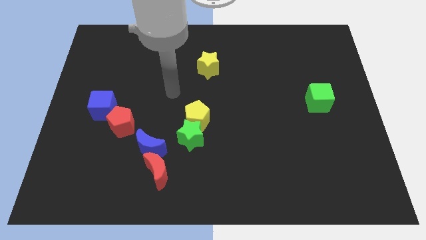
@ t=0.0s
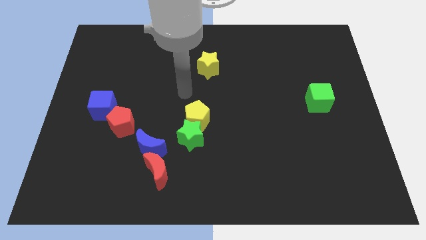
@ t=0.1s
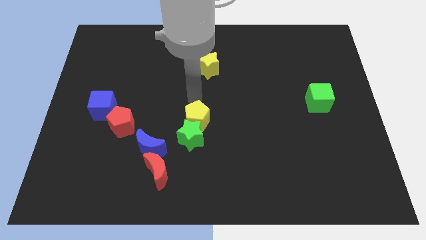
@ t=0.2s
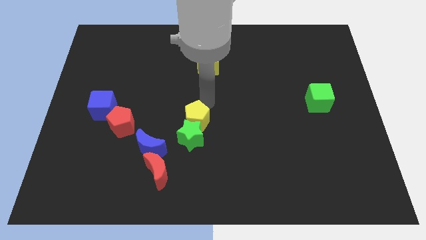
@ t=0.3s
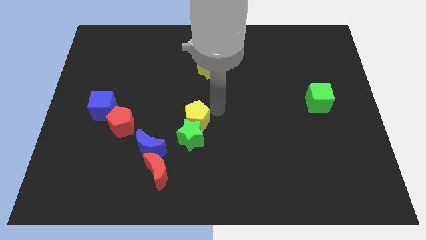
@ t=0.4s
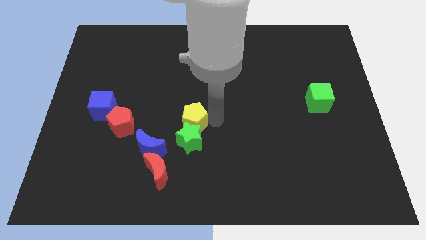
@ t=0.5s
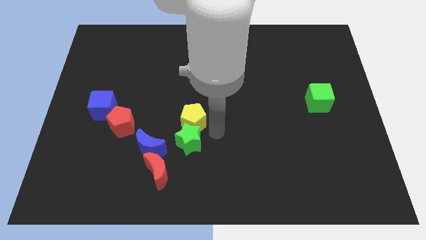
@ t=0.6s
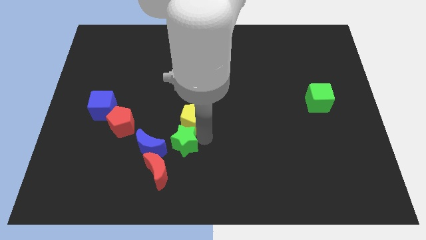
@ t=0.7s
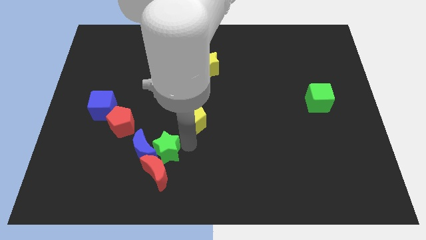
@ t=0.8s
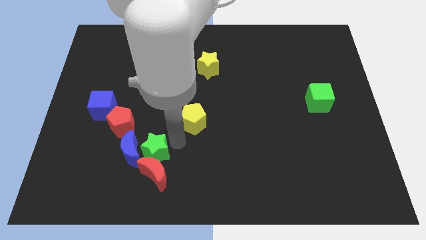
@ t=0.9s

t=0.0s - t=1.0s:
pull the yellow pentagon apart from the green star

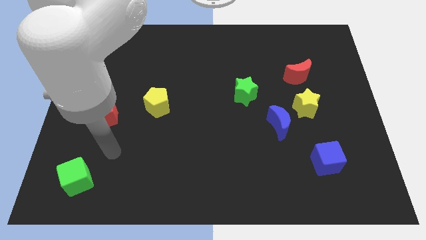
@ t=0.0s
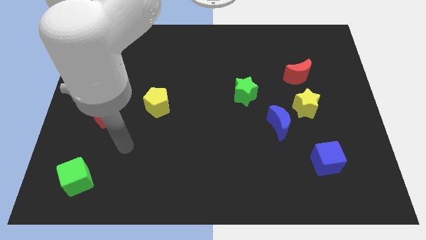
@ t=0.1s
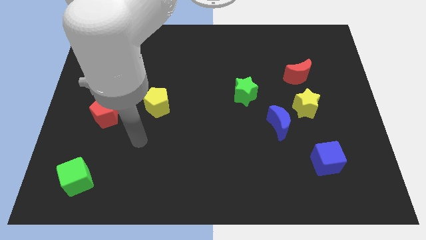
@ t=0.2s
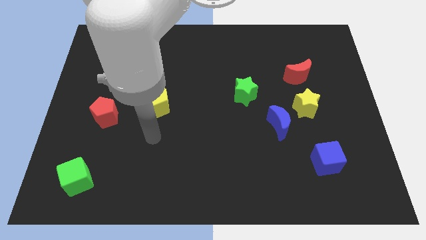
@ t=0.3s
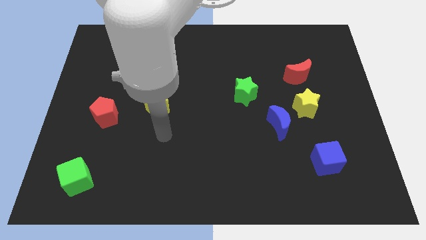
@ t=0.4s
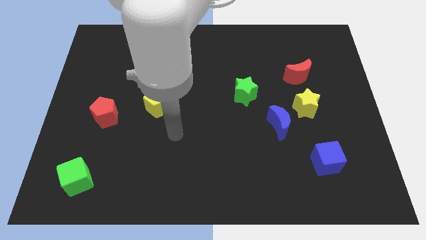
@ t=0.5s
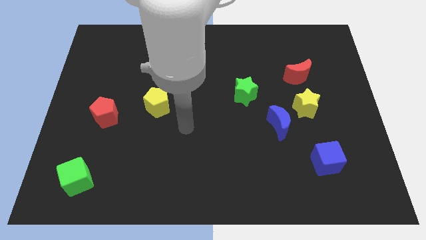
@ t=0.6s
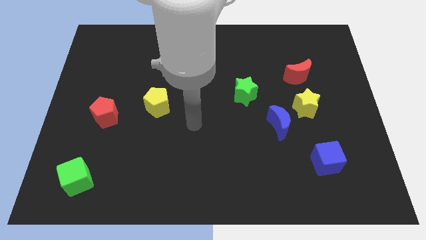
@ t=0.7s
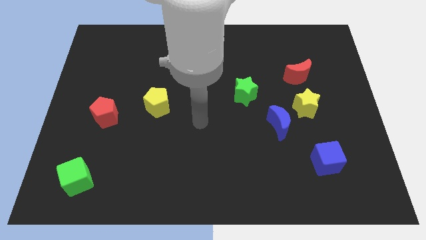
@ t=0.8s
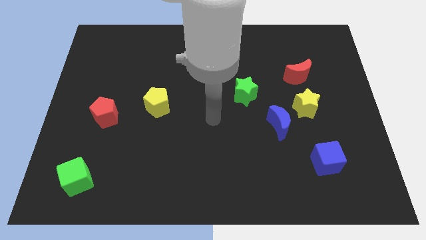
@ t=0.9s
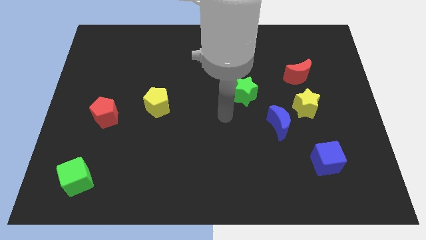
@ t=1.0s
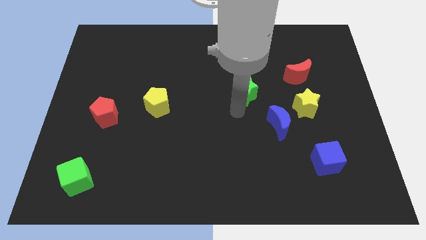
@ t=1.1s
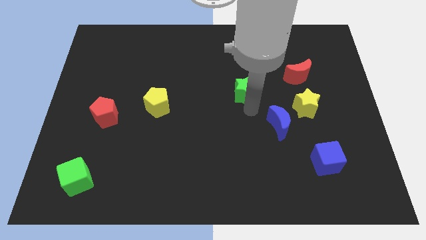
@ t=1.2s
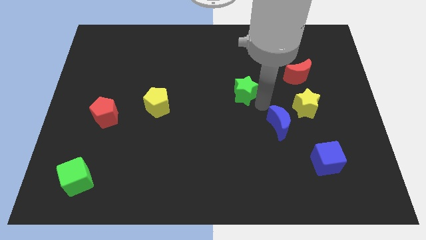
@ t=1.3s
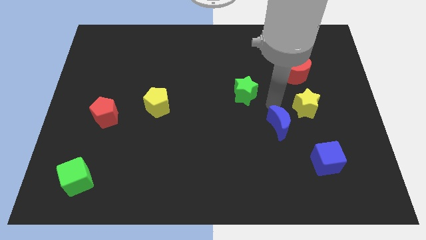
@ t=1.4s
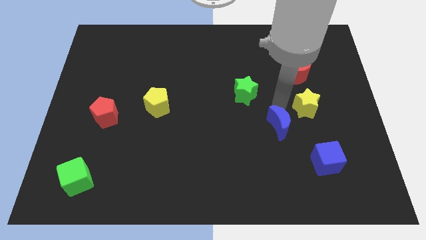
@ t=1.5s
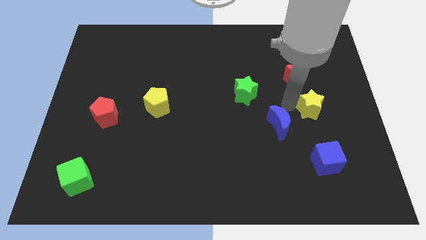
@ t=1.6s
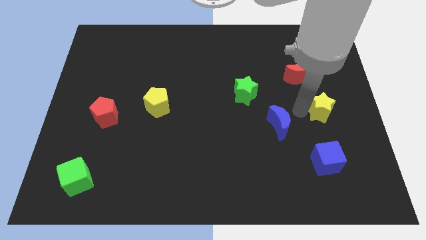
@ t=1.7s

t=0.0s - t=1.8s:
move the blue moon away from the yellow star

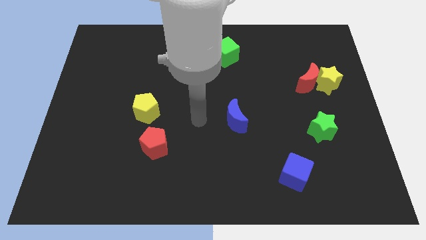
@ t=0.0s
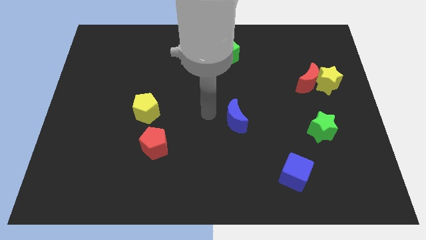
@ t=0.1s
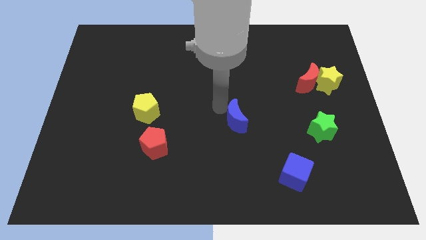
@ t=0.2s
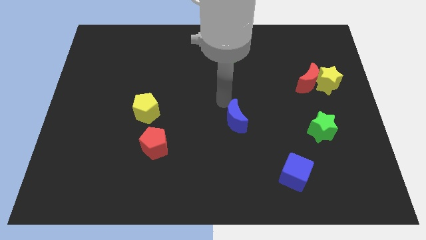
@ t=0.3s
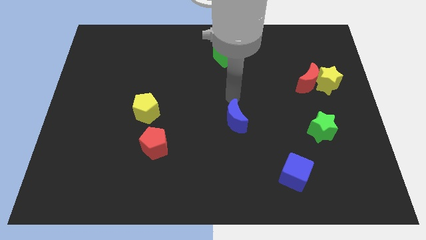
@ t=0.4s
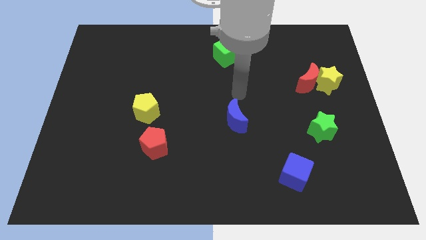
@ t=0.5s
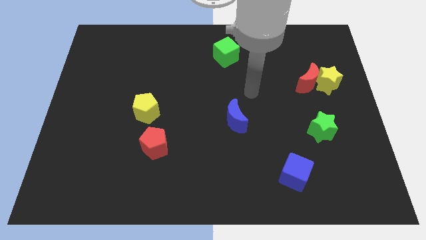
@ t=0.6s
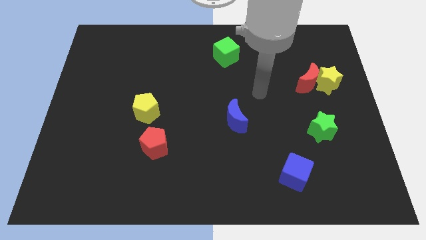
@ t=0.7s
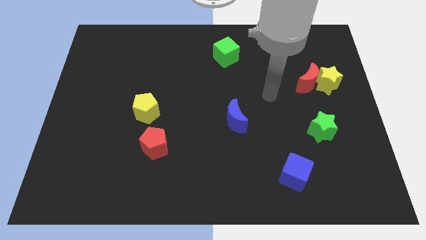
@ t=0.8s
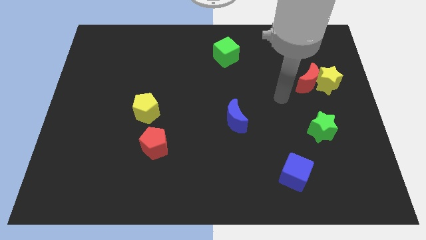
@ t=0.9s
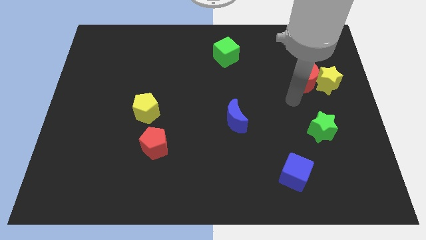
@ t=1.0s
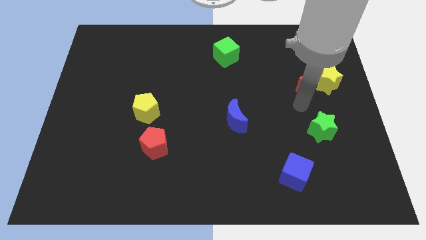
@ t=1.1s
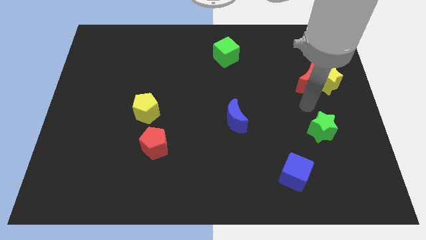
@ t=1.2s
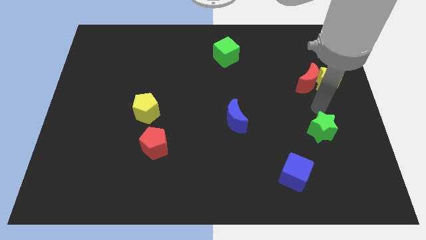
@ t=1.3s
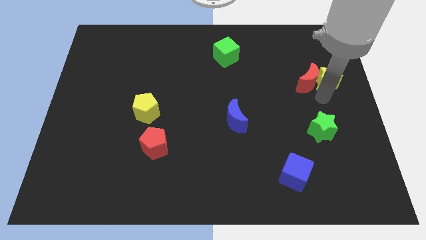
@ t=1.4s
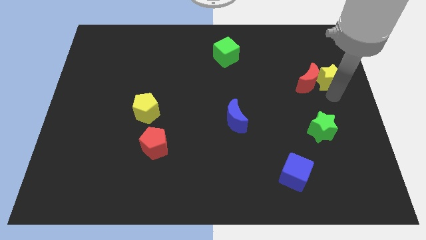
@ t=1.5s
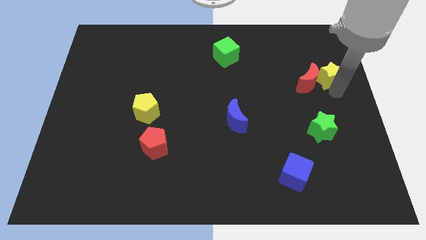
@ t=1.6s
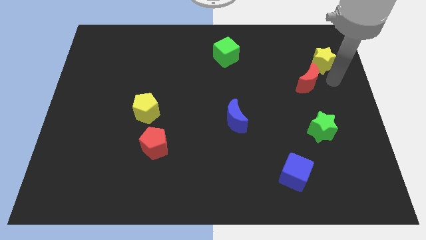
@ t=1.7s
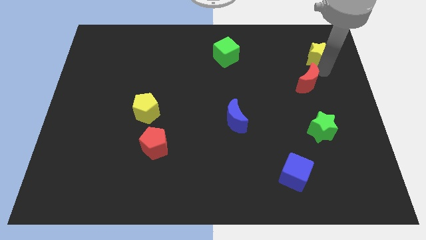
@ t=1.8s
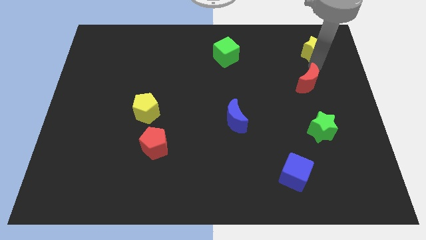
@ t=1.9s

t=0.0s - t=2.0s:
move the red moon away from the yellow star

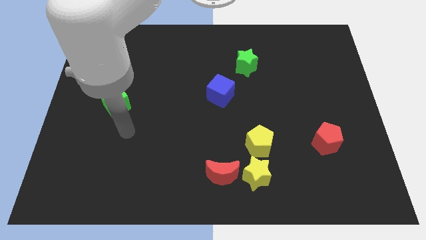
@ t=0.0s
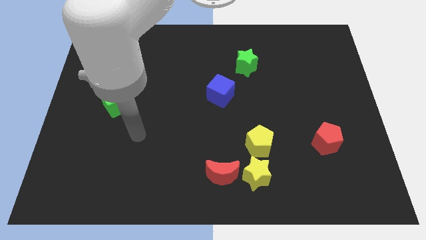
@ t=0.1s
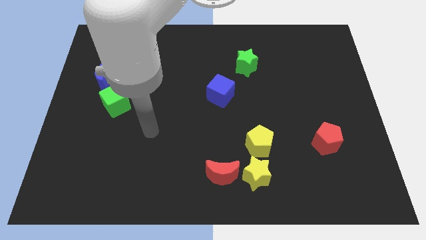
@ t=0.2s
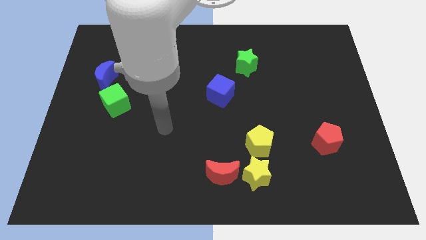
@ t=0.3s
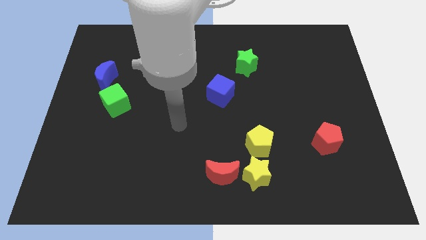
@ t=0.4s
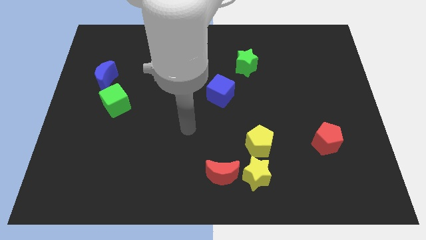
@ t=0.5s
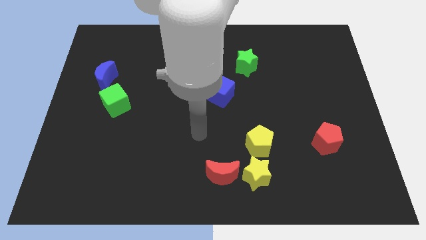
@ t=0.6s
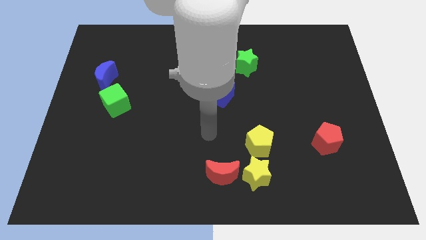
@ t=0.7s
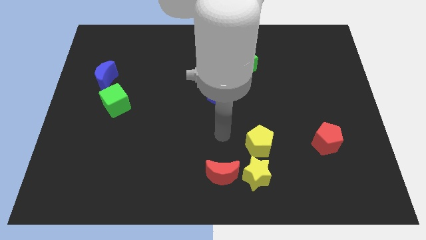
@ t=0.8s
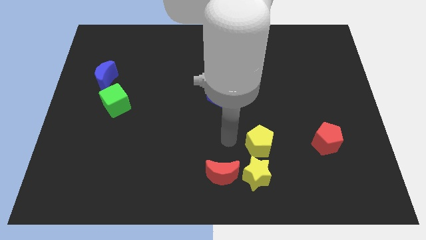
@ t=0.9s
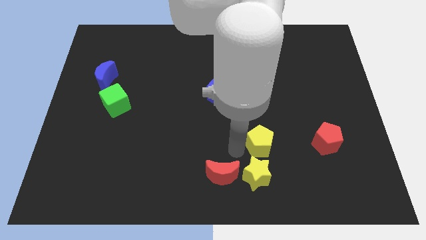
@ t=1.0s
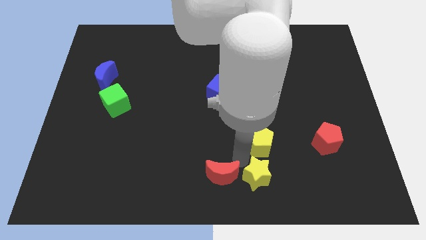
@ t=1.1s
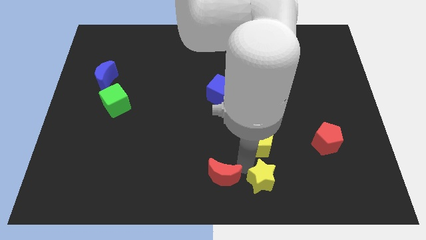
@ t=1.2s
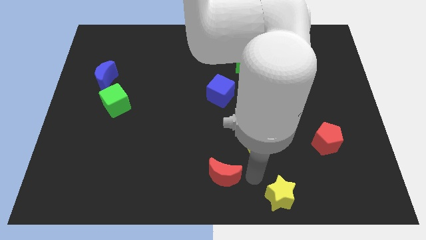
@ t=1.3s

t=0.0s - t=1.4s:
pull the red moon apart from the yellow star

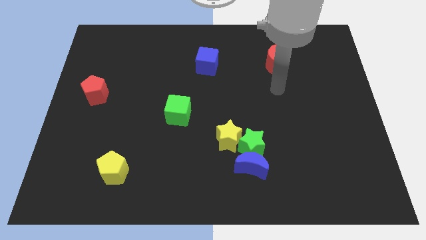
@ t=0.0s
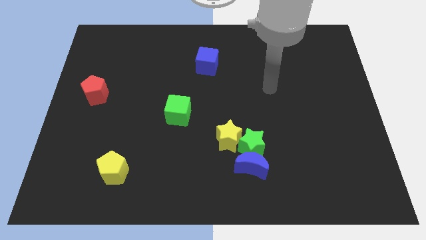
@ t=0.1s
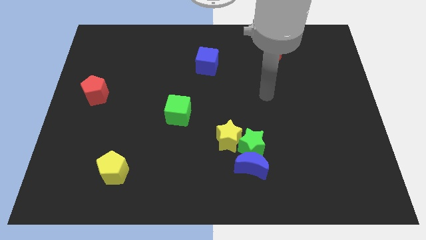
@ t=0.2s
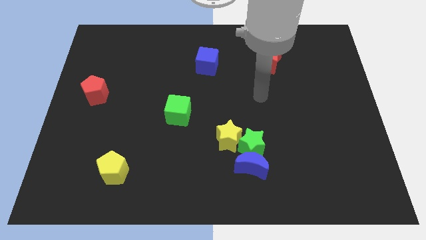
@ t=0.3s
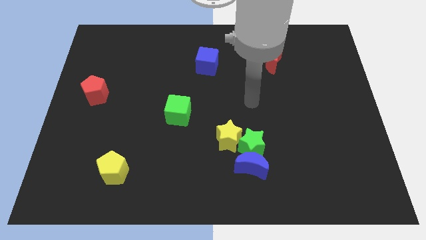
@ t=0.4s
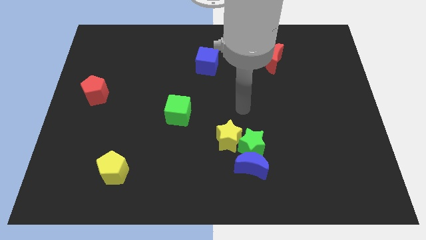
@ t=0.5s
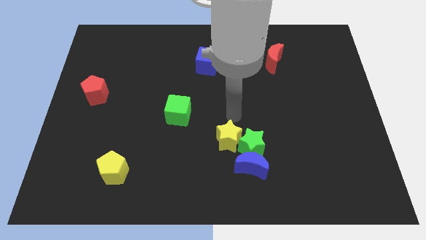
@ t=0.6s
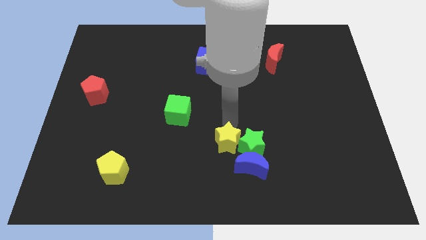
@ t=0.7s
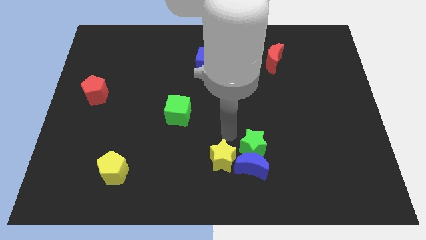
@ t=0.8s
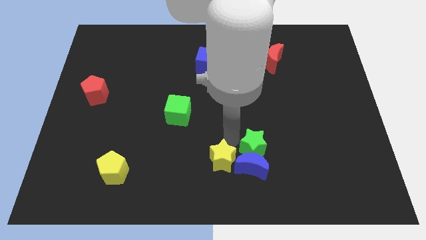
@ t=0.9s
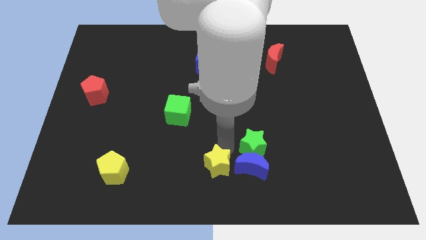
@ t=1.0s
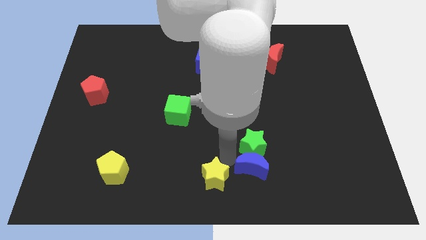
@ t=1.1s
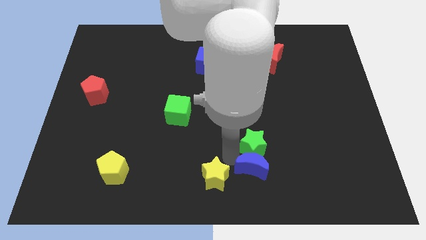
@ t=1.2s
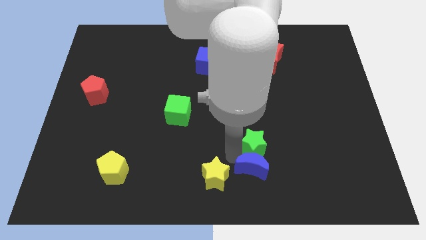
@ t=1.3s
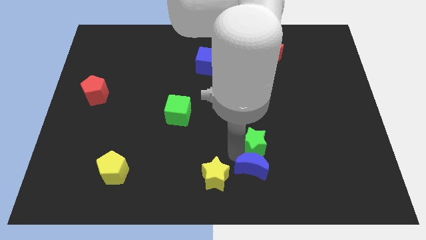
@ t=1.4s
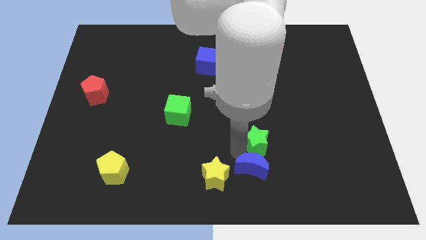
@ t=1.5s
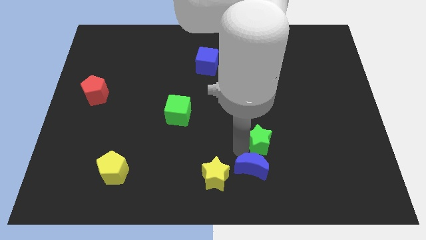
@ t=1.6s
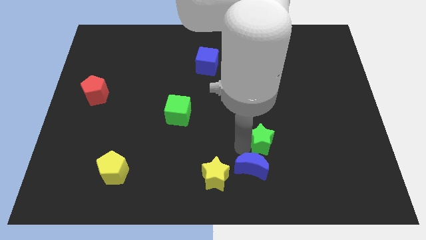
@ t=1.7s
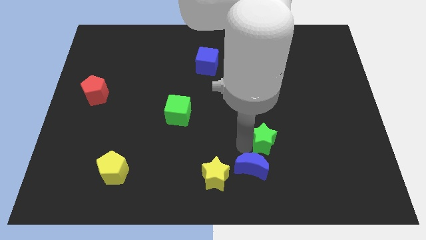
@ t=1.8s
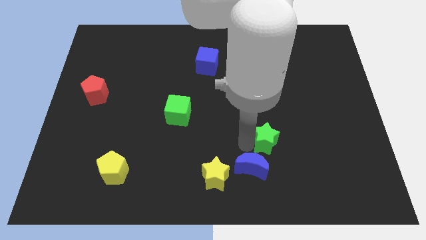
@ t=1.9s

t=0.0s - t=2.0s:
pull the green star apart from the blue moon and yellow star

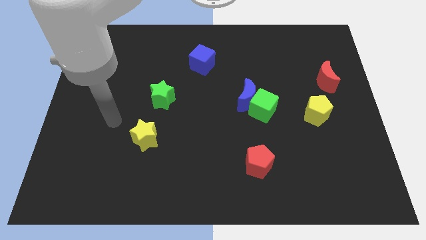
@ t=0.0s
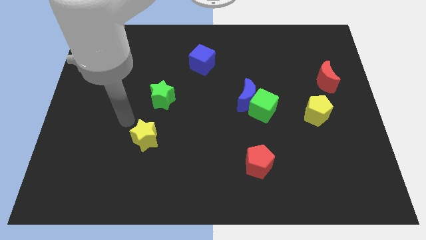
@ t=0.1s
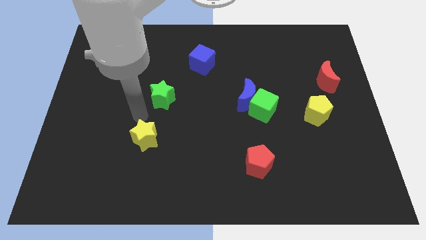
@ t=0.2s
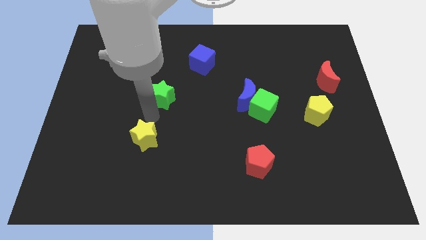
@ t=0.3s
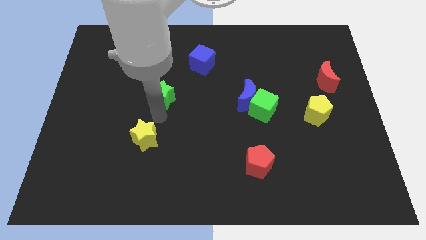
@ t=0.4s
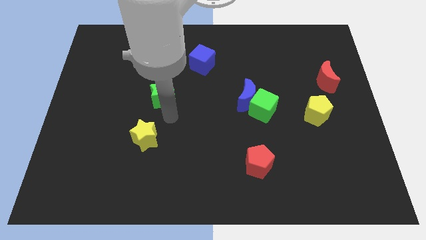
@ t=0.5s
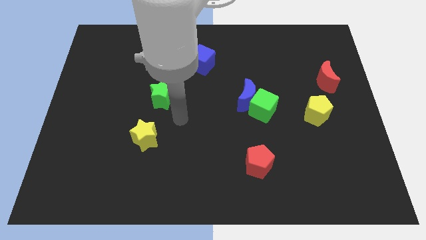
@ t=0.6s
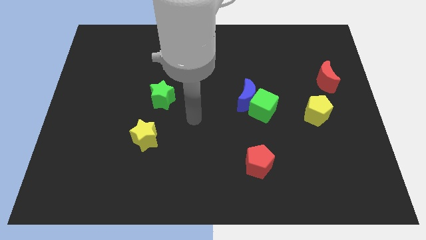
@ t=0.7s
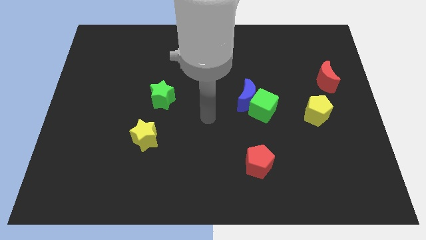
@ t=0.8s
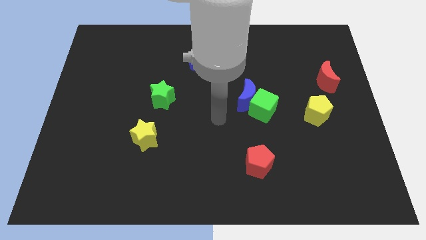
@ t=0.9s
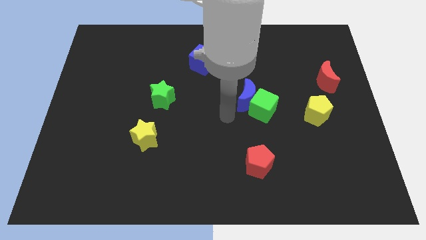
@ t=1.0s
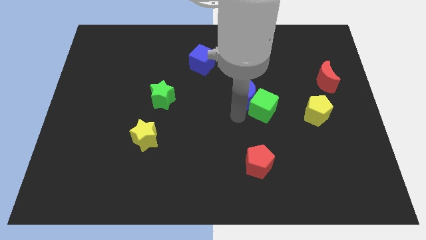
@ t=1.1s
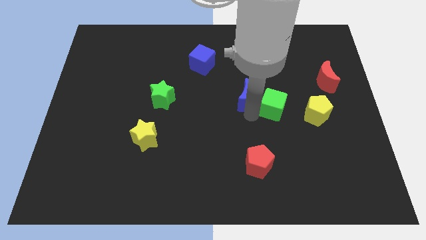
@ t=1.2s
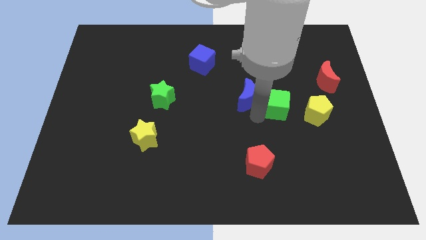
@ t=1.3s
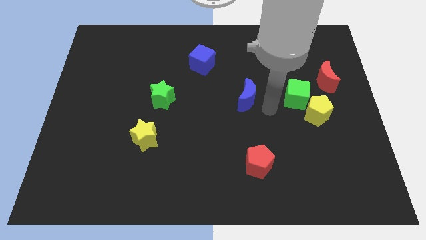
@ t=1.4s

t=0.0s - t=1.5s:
move the blue moon away from the green cube
